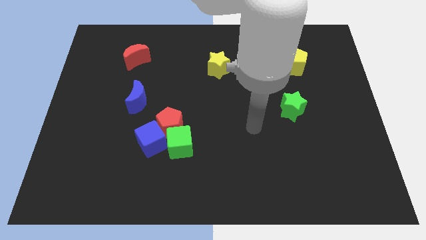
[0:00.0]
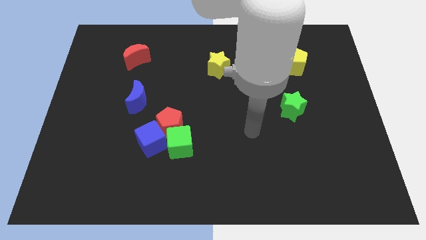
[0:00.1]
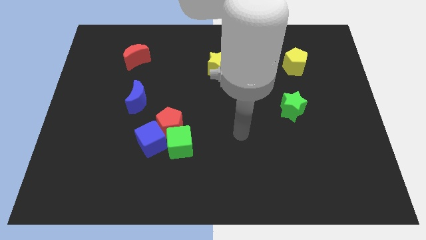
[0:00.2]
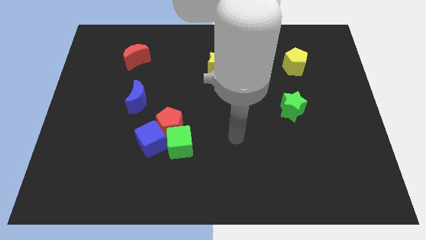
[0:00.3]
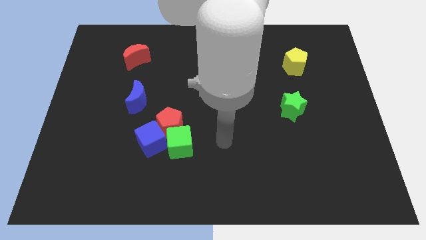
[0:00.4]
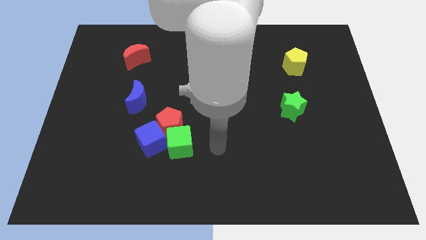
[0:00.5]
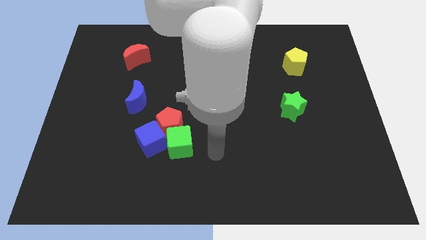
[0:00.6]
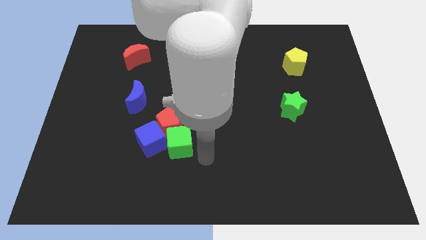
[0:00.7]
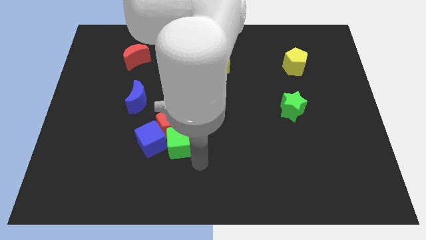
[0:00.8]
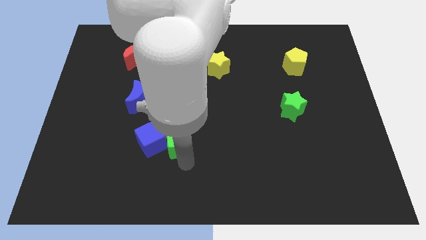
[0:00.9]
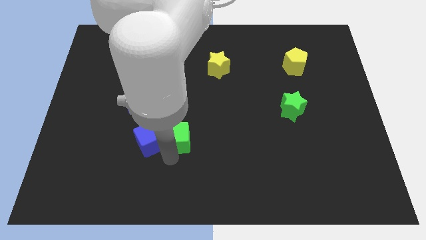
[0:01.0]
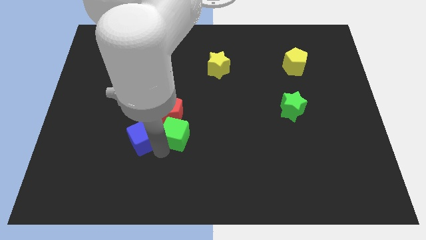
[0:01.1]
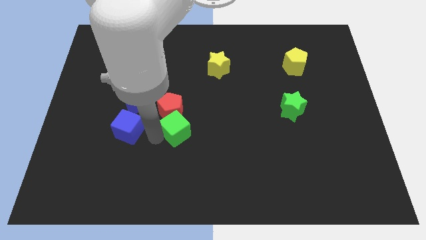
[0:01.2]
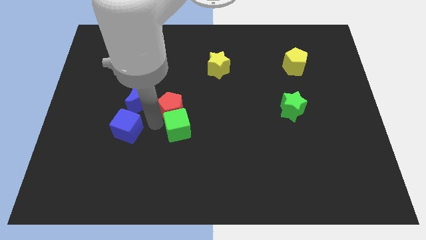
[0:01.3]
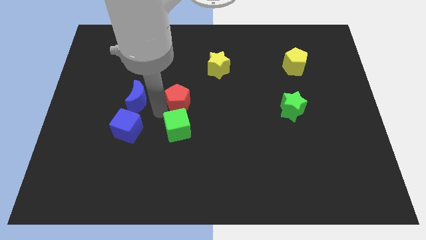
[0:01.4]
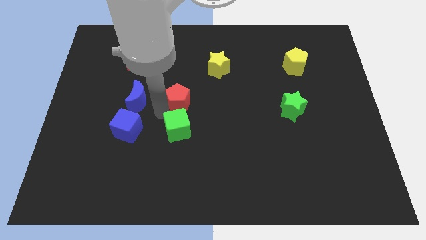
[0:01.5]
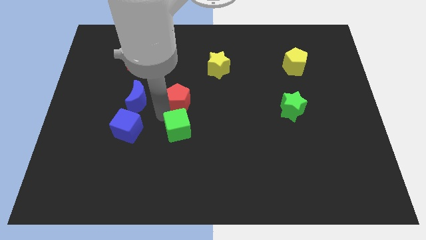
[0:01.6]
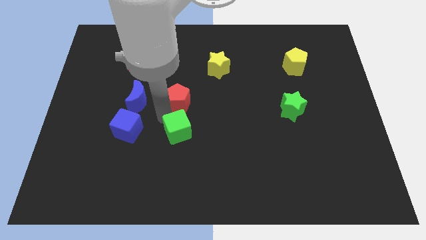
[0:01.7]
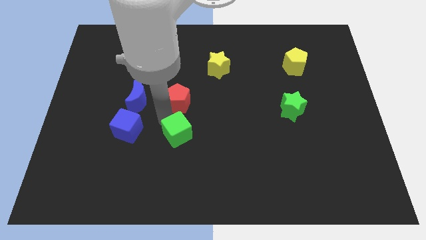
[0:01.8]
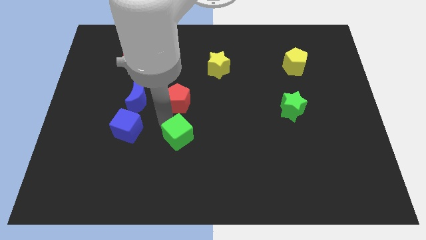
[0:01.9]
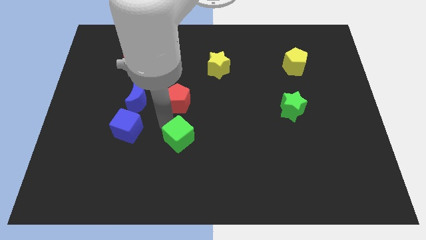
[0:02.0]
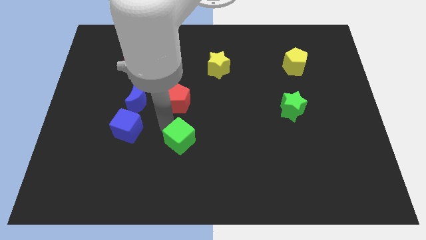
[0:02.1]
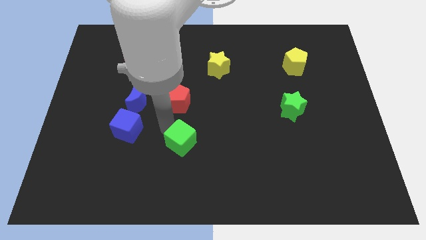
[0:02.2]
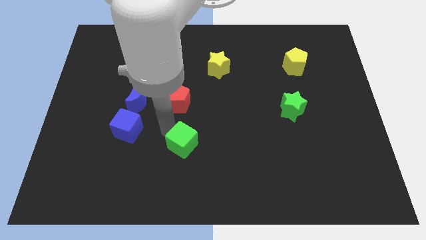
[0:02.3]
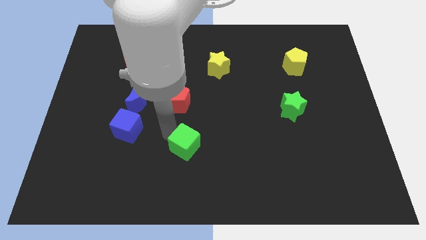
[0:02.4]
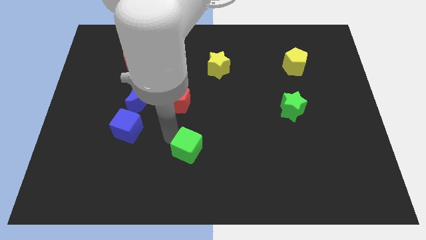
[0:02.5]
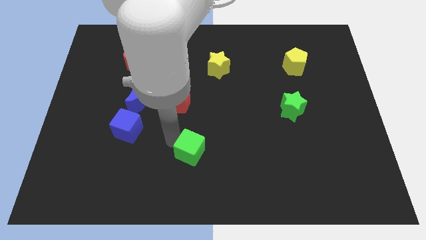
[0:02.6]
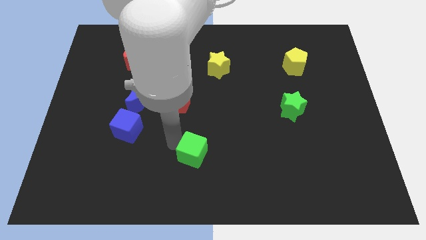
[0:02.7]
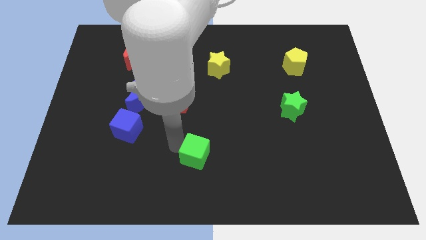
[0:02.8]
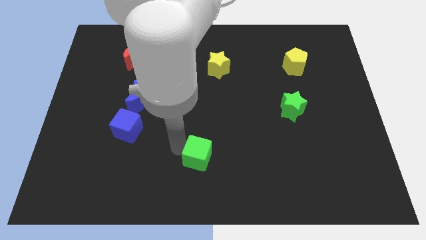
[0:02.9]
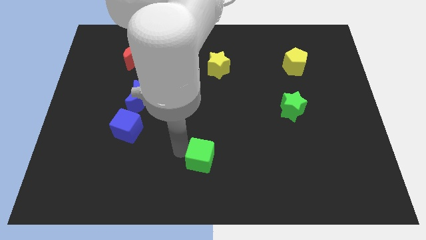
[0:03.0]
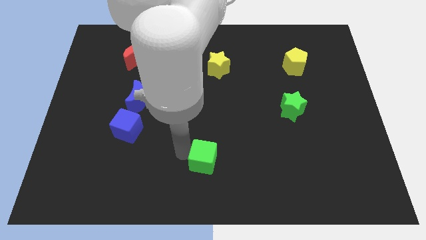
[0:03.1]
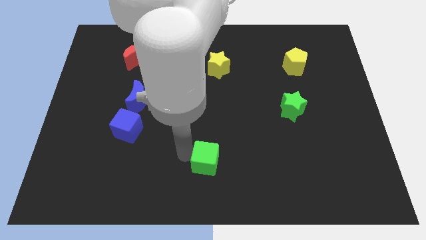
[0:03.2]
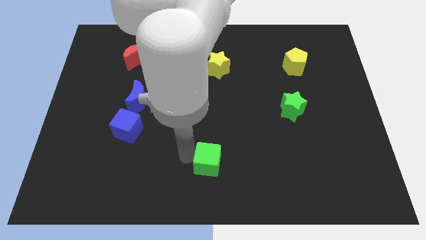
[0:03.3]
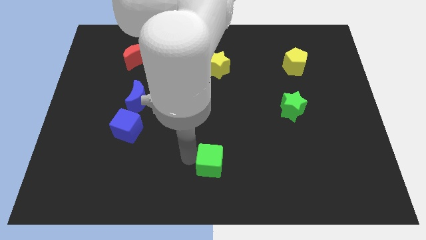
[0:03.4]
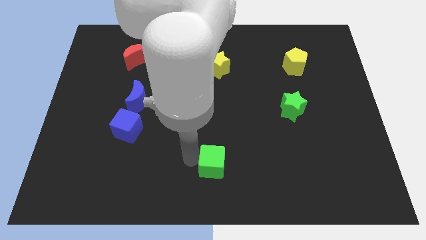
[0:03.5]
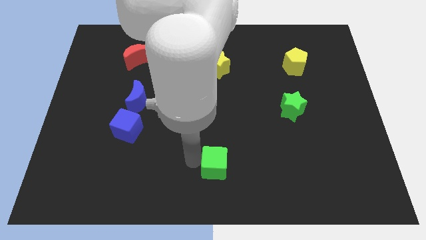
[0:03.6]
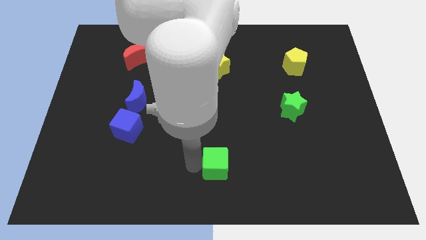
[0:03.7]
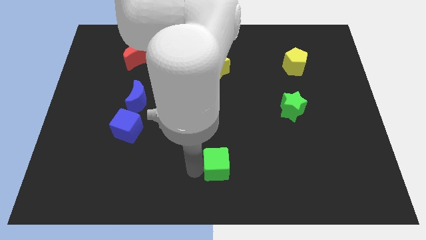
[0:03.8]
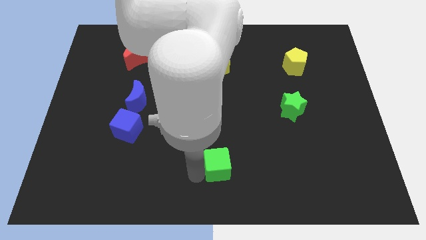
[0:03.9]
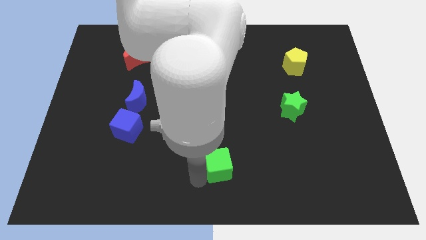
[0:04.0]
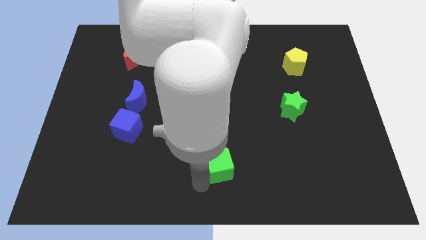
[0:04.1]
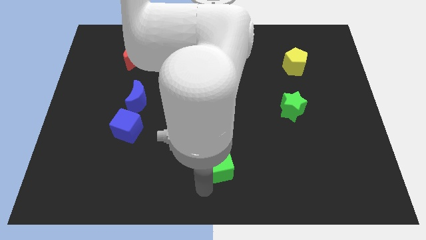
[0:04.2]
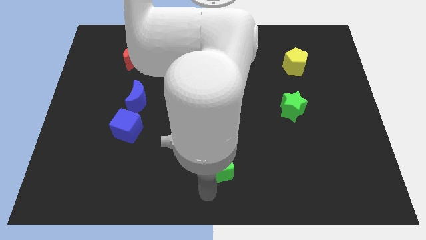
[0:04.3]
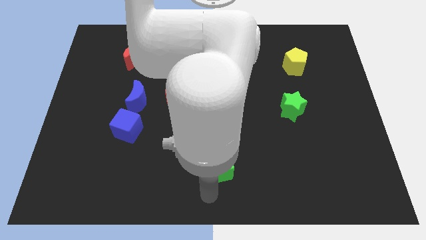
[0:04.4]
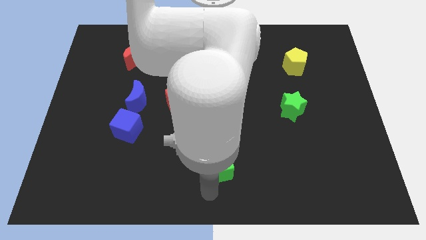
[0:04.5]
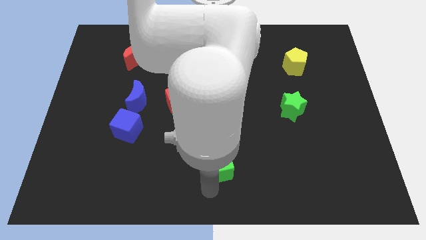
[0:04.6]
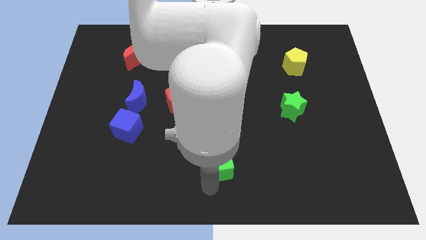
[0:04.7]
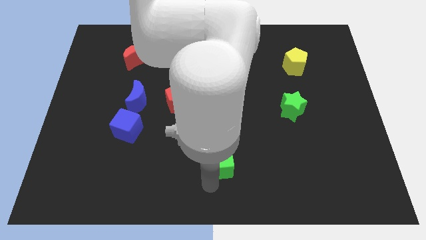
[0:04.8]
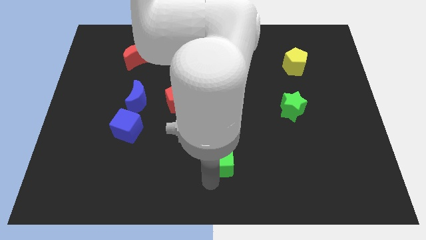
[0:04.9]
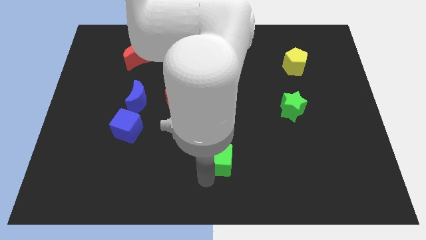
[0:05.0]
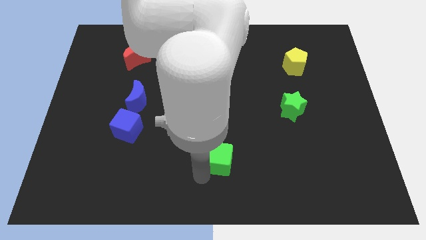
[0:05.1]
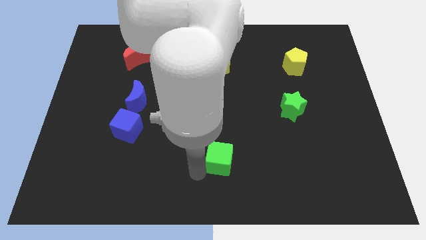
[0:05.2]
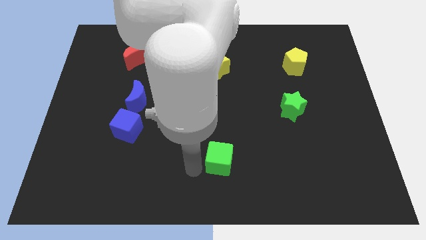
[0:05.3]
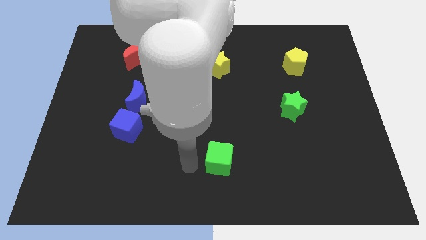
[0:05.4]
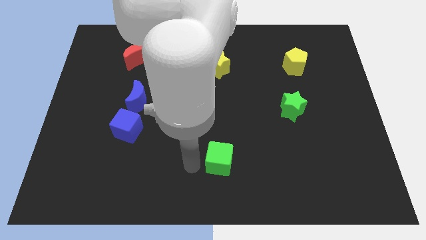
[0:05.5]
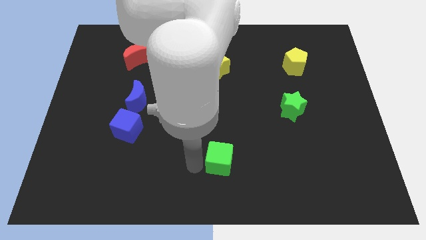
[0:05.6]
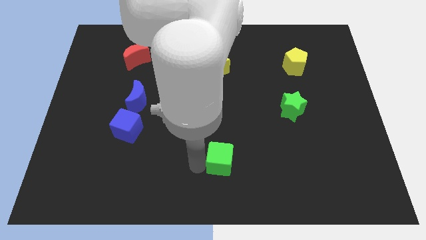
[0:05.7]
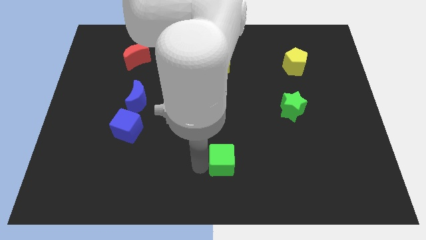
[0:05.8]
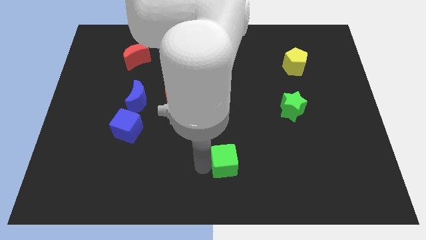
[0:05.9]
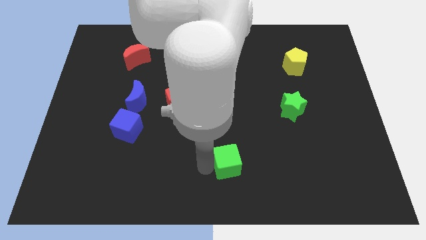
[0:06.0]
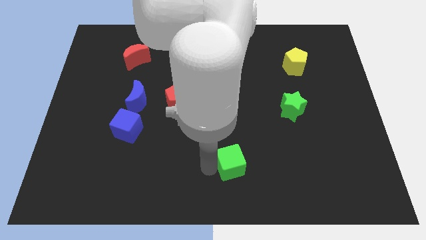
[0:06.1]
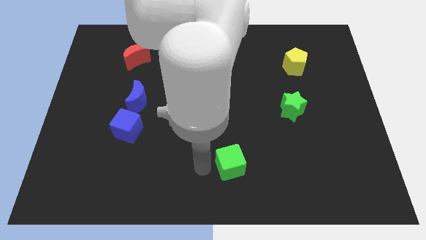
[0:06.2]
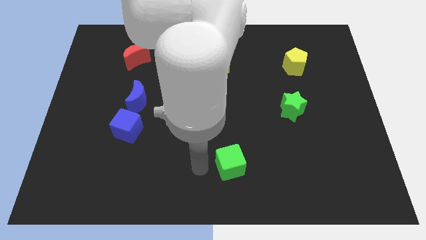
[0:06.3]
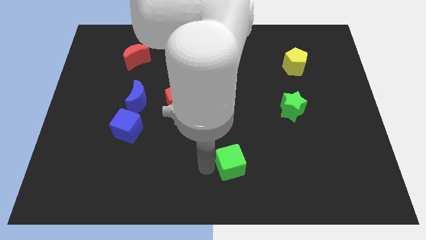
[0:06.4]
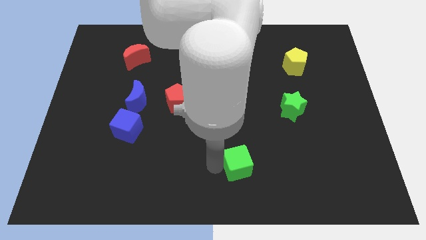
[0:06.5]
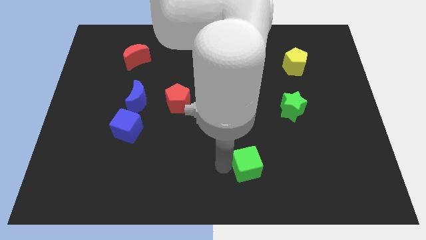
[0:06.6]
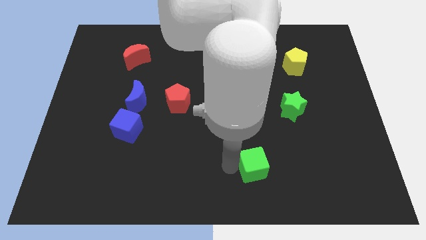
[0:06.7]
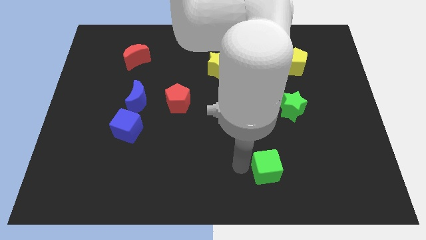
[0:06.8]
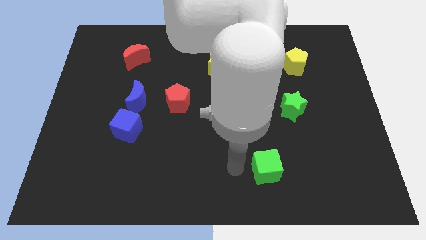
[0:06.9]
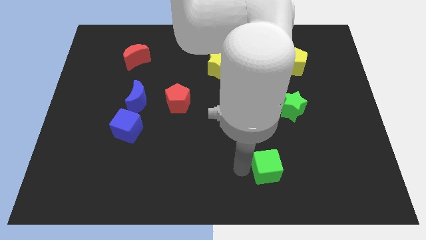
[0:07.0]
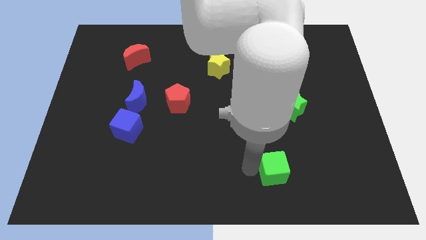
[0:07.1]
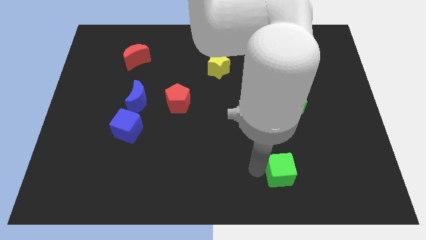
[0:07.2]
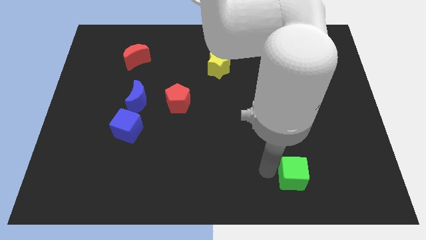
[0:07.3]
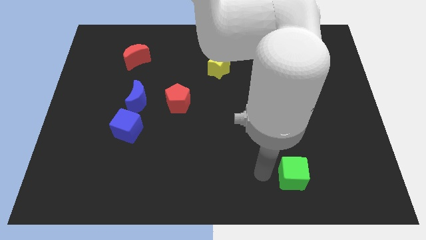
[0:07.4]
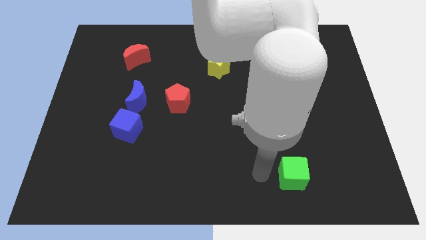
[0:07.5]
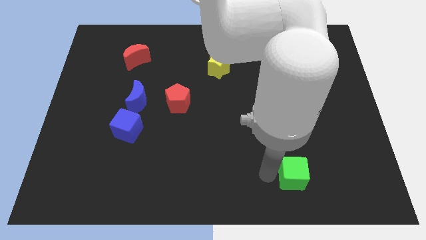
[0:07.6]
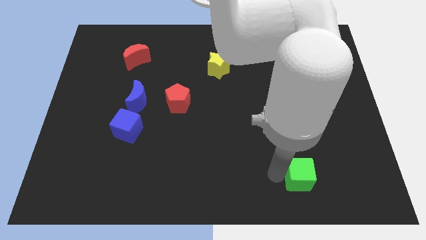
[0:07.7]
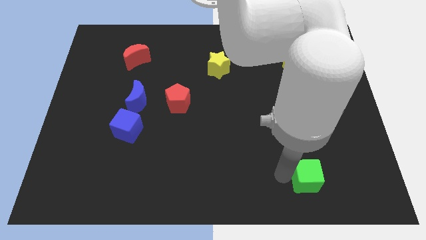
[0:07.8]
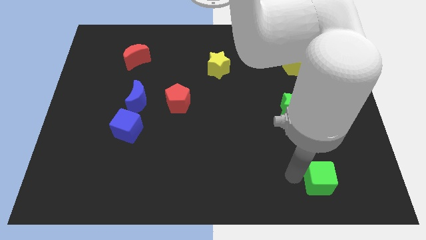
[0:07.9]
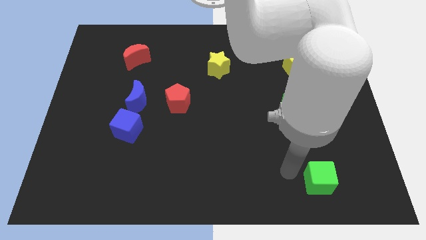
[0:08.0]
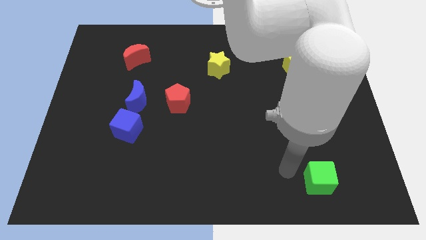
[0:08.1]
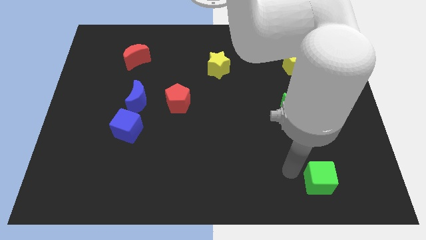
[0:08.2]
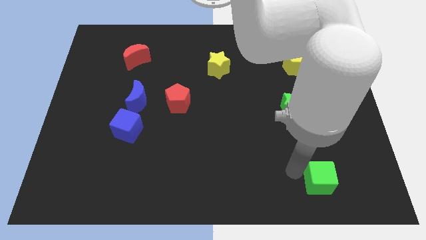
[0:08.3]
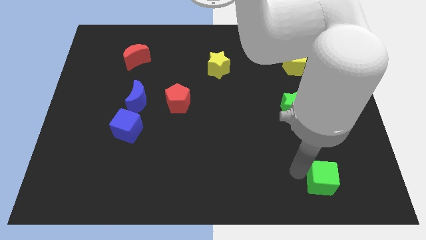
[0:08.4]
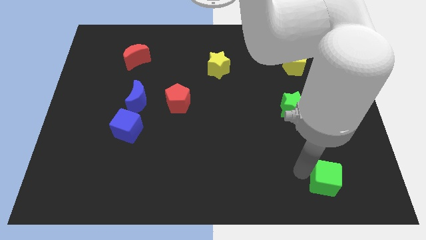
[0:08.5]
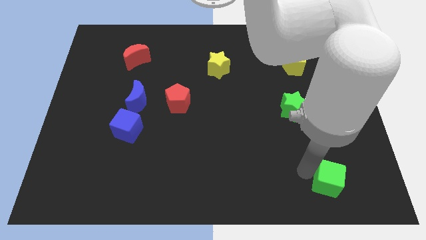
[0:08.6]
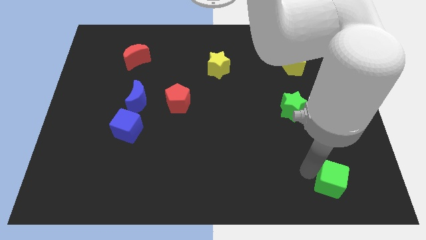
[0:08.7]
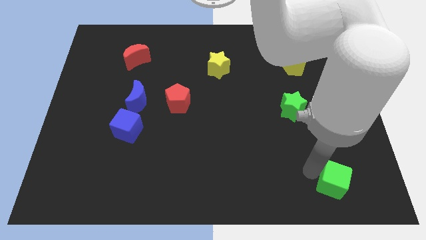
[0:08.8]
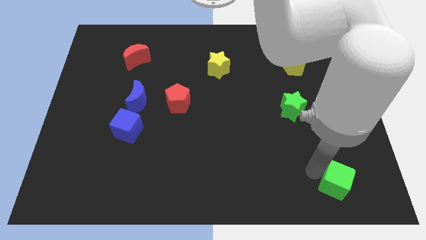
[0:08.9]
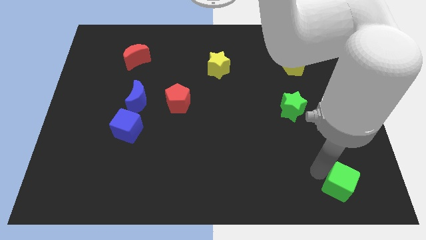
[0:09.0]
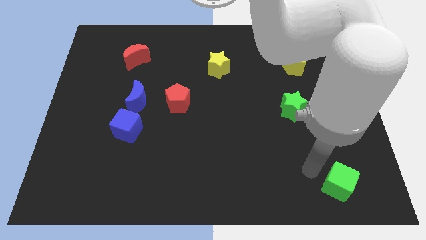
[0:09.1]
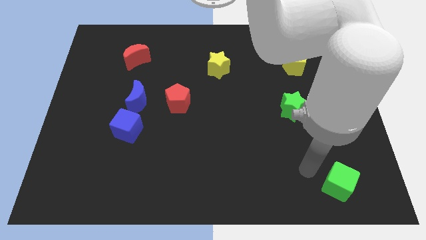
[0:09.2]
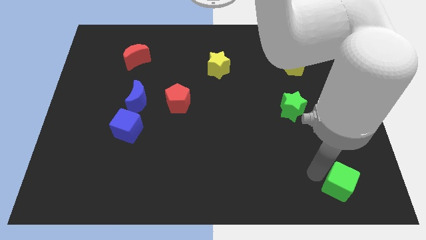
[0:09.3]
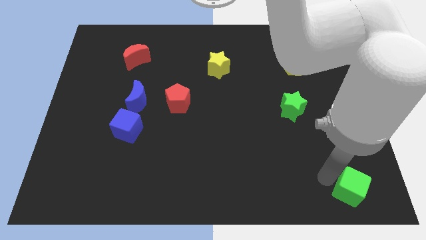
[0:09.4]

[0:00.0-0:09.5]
move the green cube to the bottom right corner
